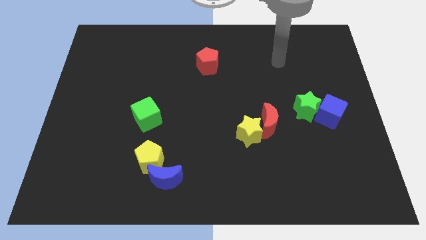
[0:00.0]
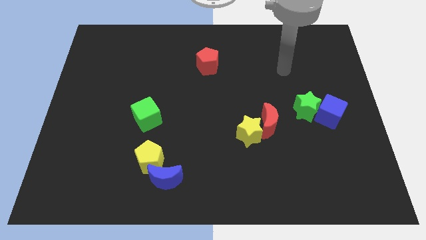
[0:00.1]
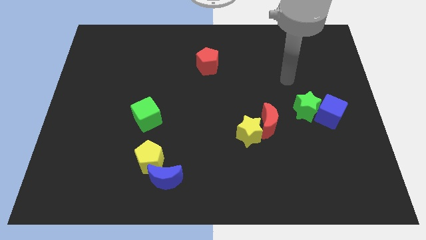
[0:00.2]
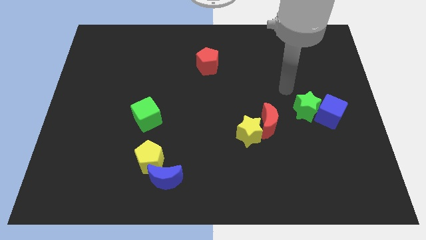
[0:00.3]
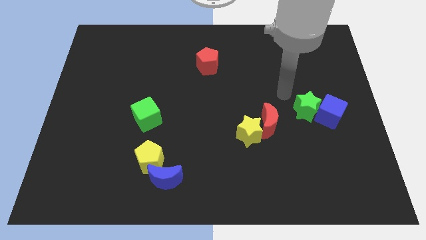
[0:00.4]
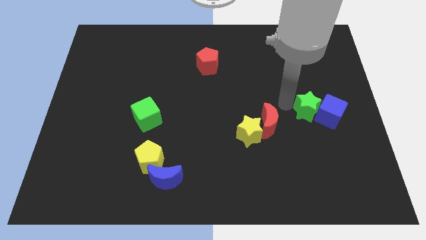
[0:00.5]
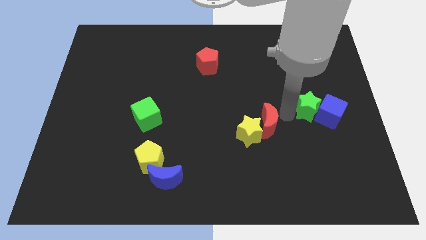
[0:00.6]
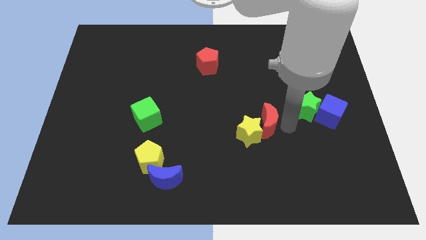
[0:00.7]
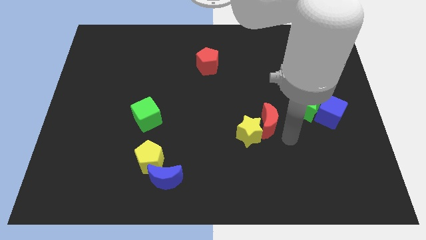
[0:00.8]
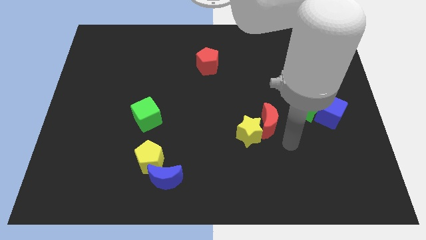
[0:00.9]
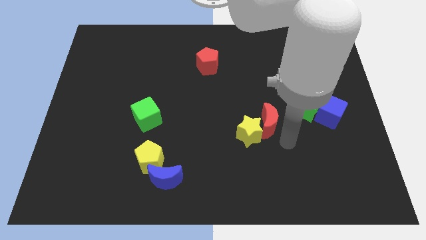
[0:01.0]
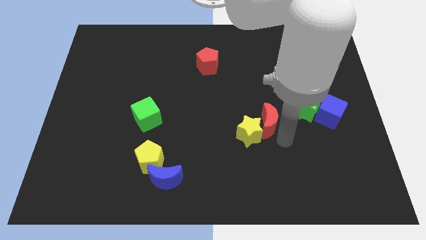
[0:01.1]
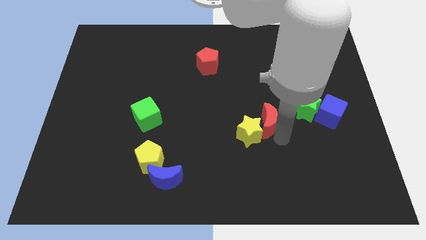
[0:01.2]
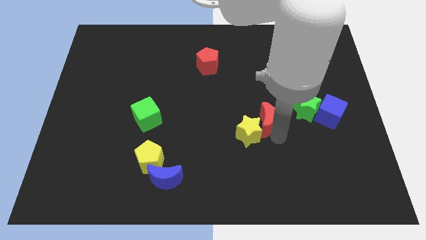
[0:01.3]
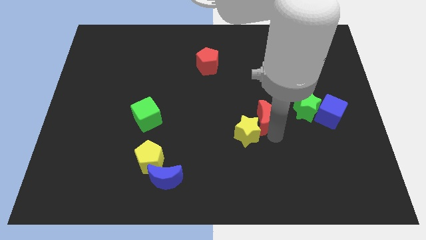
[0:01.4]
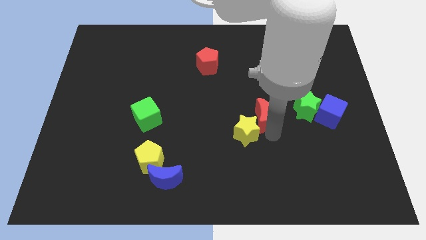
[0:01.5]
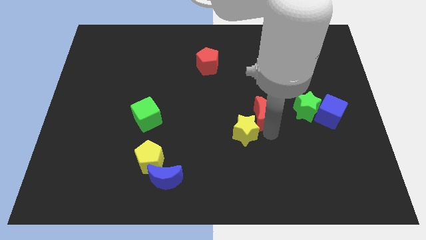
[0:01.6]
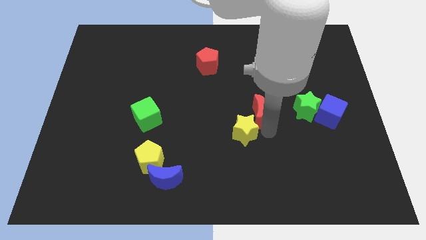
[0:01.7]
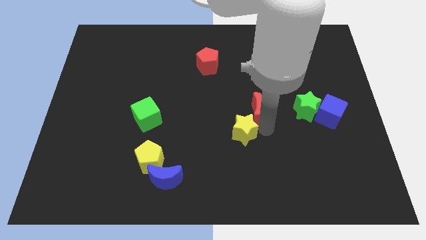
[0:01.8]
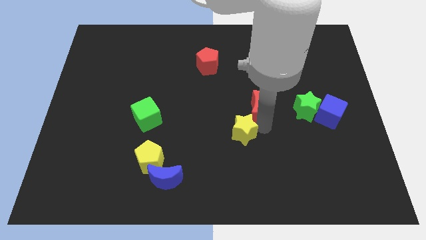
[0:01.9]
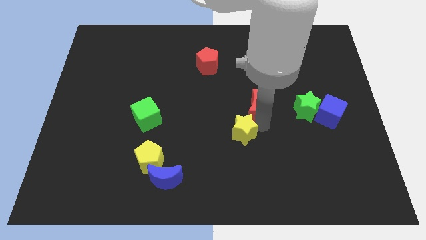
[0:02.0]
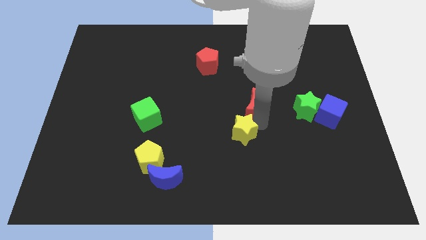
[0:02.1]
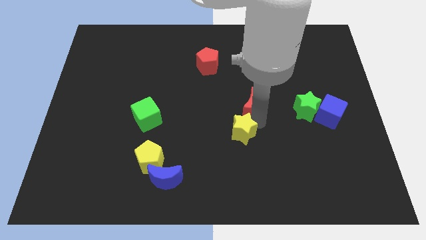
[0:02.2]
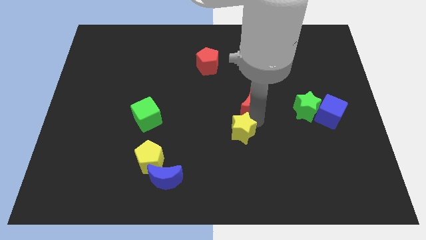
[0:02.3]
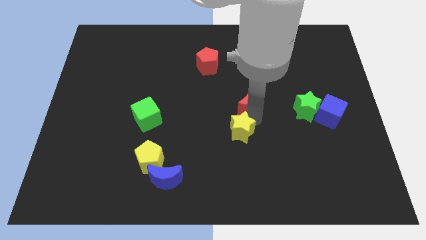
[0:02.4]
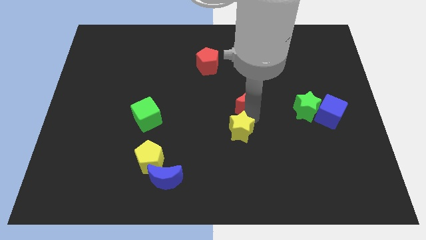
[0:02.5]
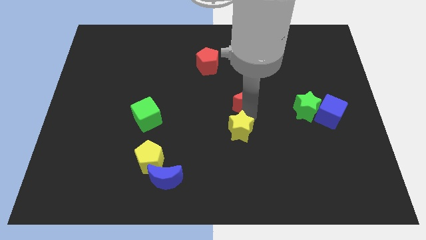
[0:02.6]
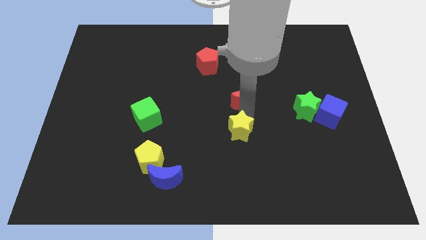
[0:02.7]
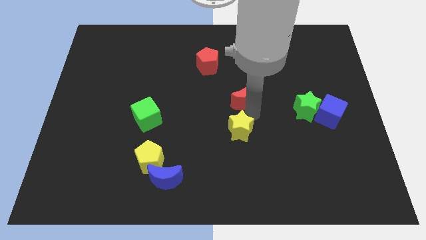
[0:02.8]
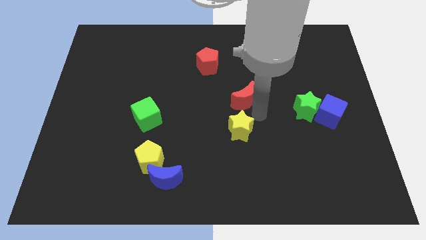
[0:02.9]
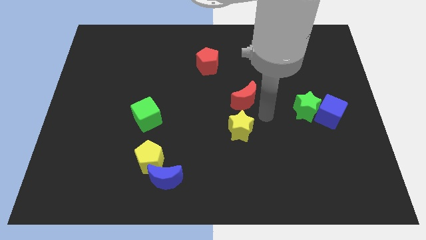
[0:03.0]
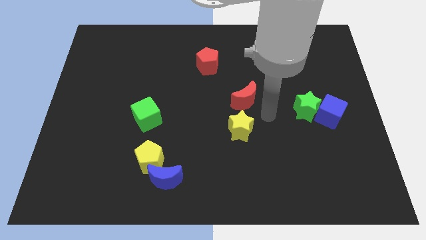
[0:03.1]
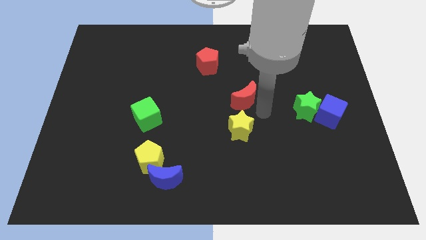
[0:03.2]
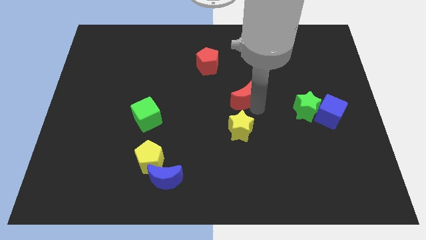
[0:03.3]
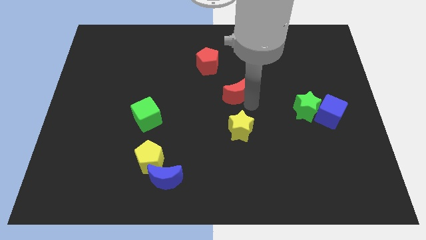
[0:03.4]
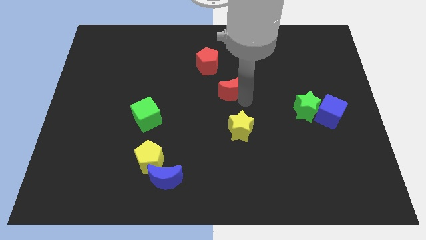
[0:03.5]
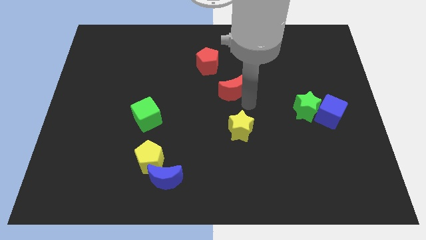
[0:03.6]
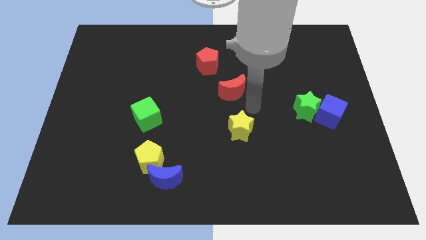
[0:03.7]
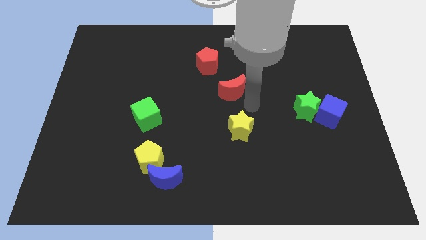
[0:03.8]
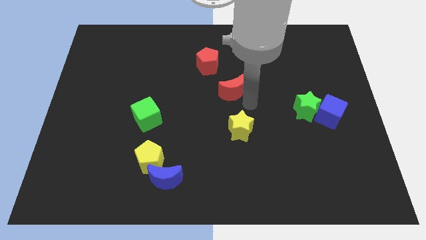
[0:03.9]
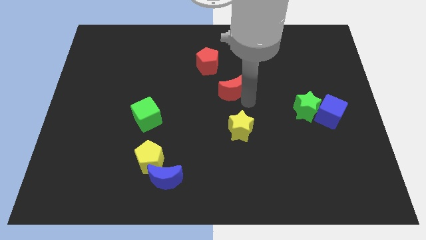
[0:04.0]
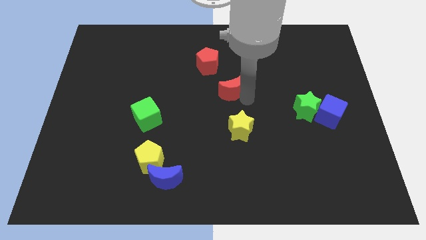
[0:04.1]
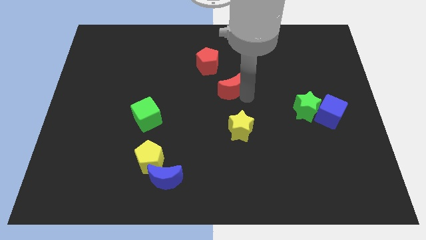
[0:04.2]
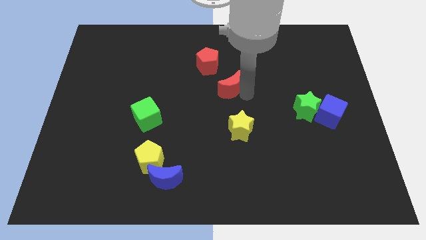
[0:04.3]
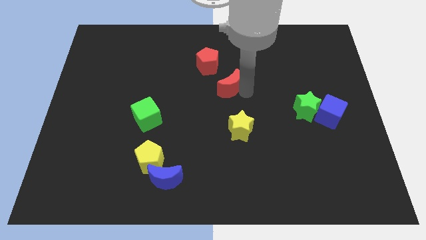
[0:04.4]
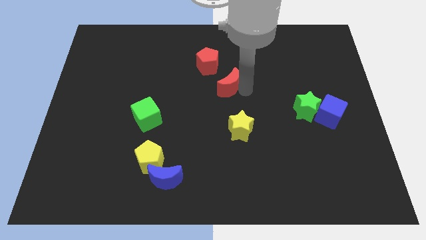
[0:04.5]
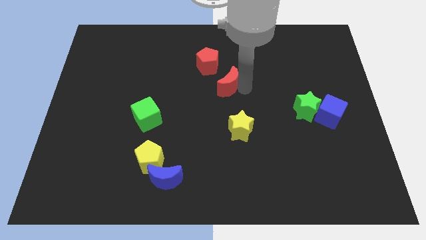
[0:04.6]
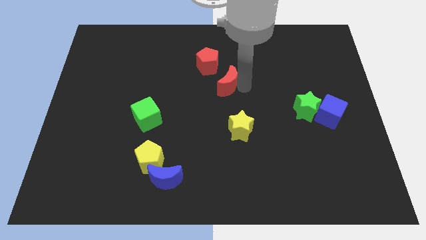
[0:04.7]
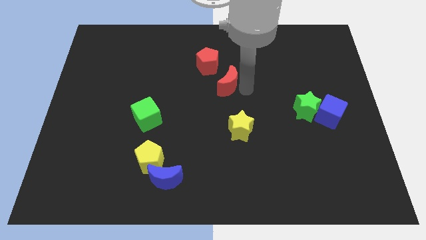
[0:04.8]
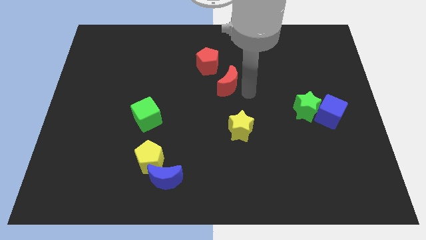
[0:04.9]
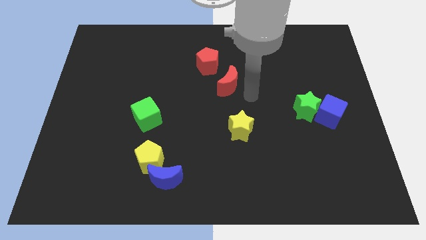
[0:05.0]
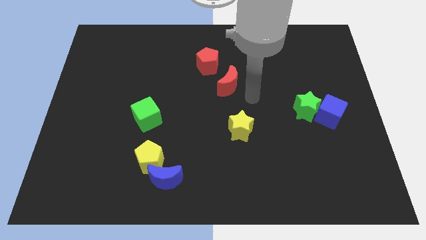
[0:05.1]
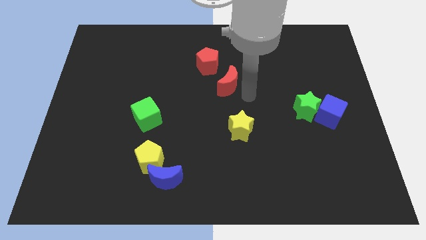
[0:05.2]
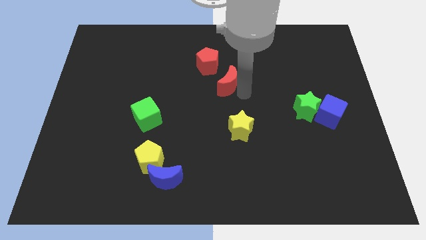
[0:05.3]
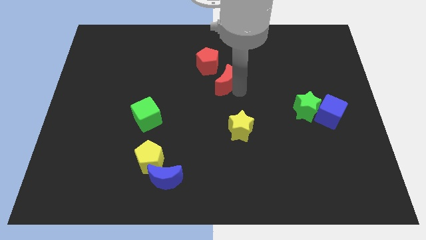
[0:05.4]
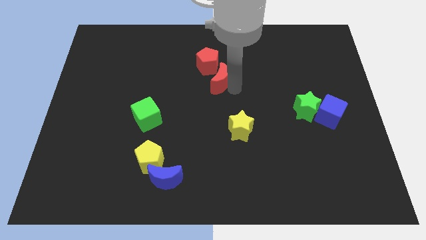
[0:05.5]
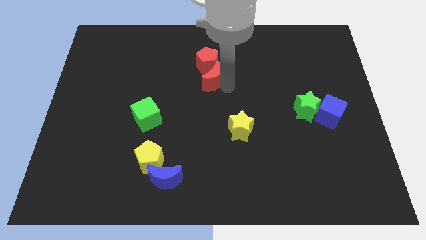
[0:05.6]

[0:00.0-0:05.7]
put the red moon close to the red pentagon

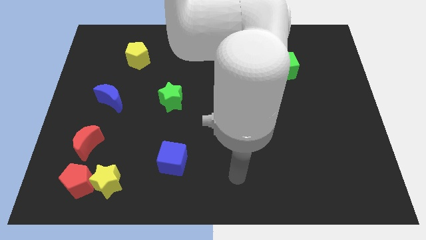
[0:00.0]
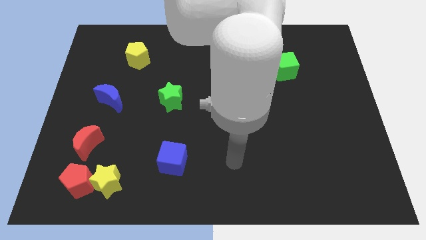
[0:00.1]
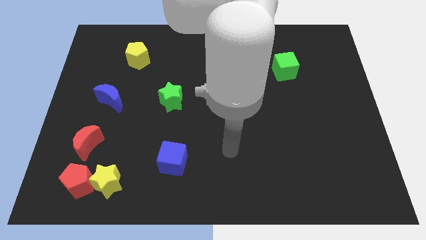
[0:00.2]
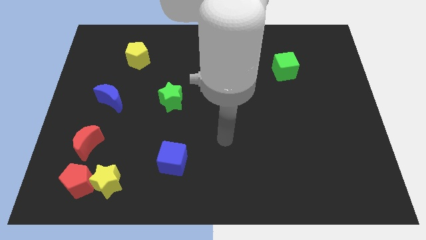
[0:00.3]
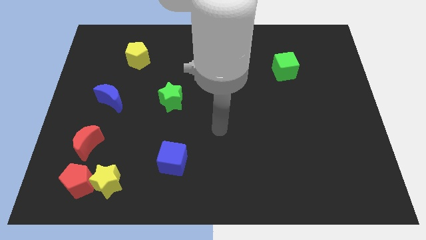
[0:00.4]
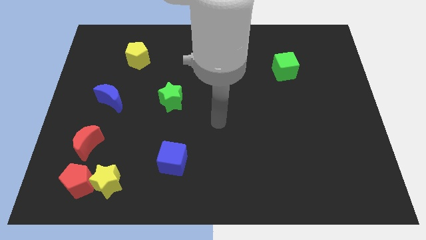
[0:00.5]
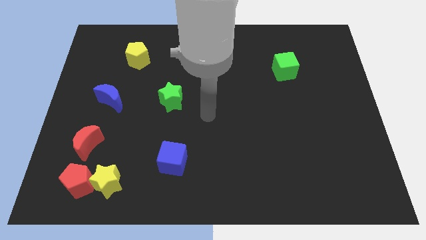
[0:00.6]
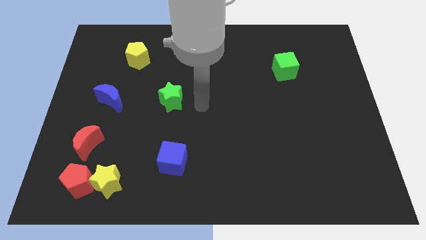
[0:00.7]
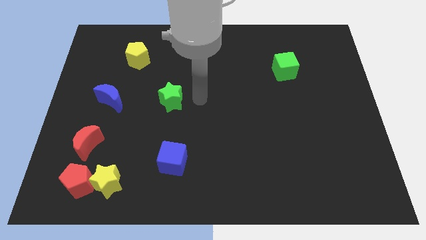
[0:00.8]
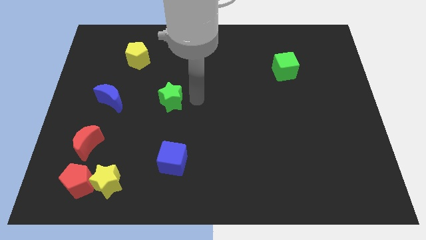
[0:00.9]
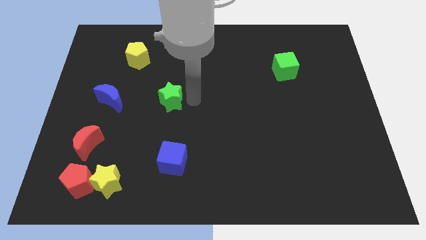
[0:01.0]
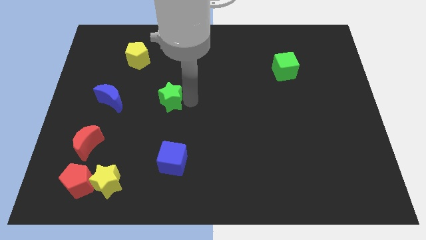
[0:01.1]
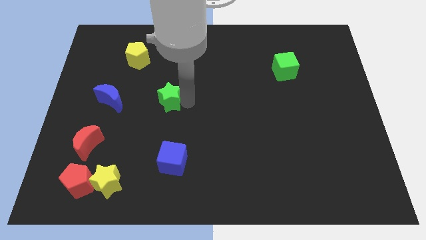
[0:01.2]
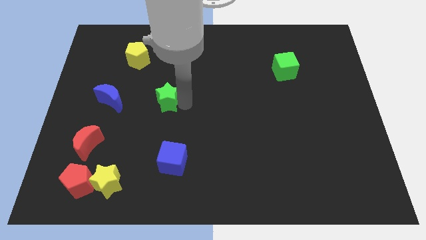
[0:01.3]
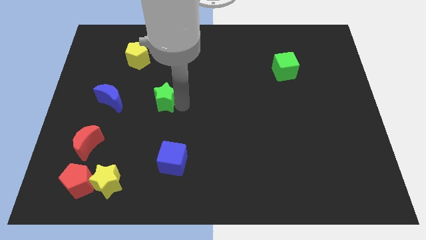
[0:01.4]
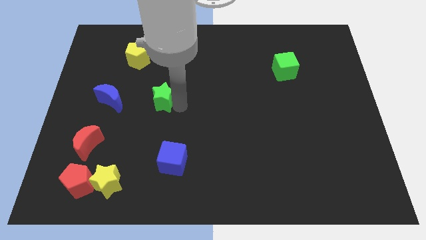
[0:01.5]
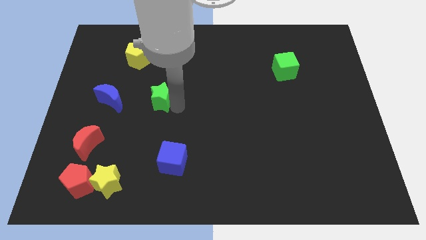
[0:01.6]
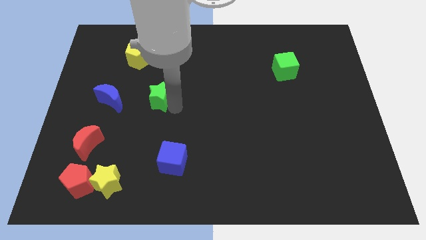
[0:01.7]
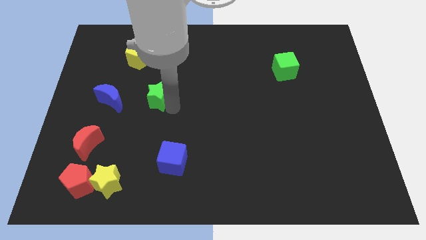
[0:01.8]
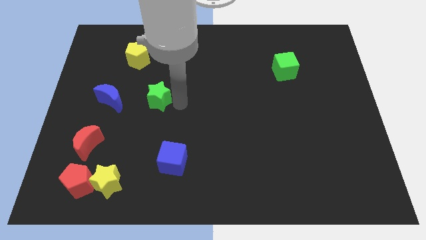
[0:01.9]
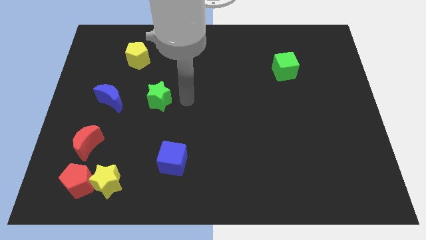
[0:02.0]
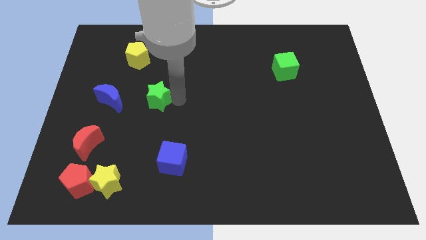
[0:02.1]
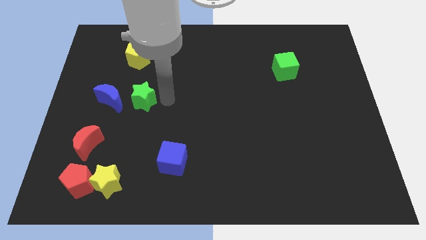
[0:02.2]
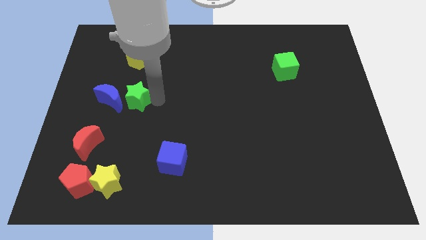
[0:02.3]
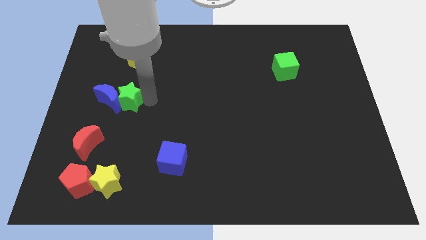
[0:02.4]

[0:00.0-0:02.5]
put the green star towards the blue moon
